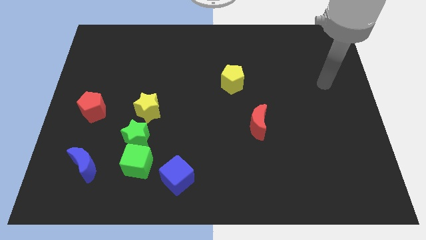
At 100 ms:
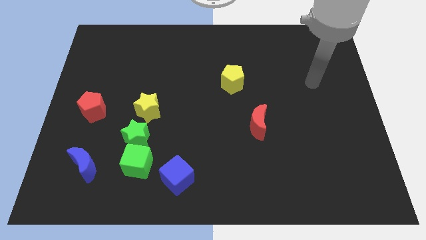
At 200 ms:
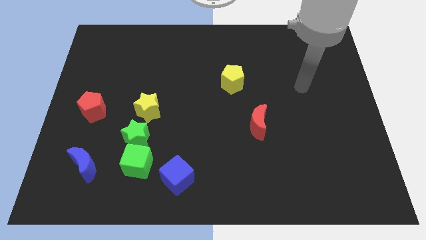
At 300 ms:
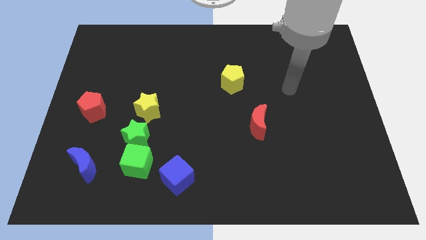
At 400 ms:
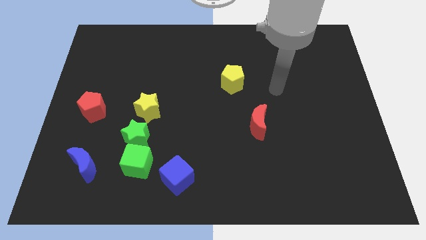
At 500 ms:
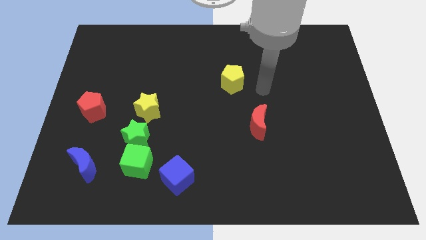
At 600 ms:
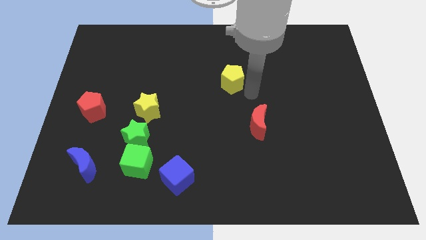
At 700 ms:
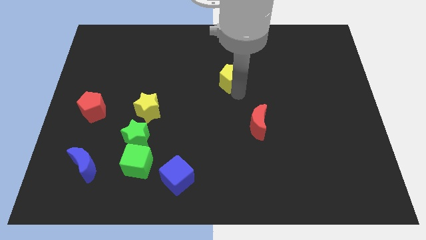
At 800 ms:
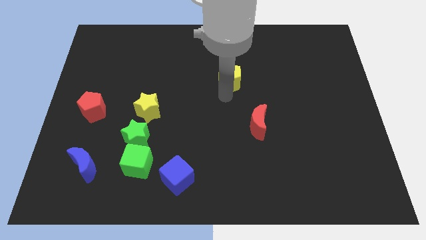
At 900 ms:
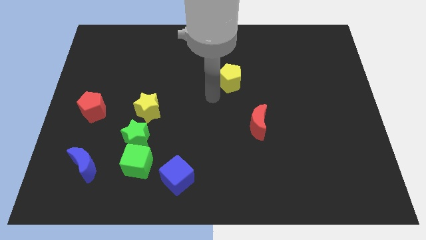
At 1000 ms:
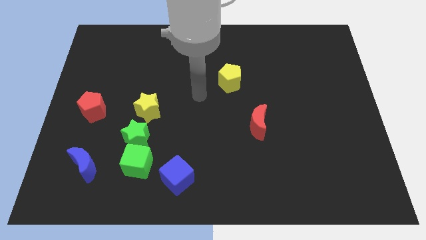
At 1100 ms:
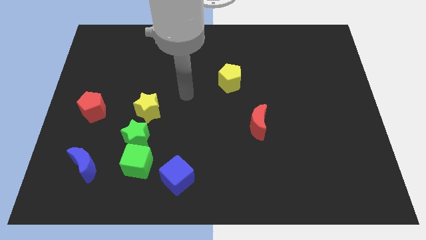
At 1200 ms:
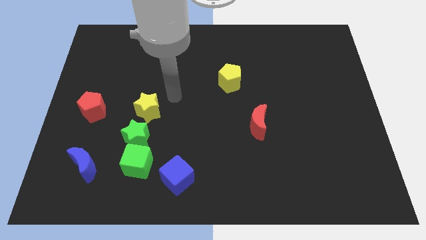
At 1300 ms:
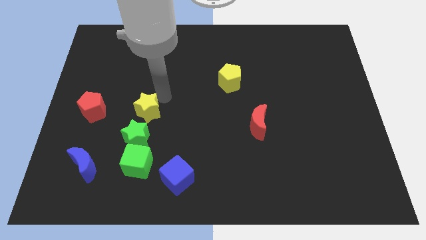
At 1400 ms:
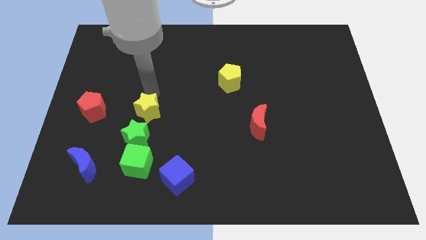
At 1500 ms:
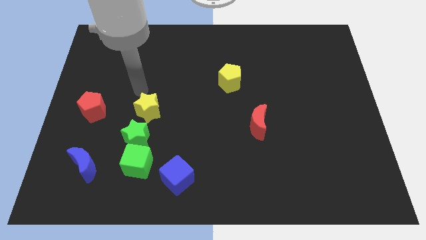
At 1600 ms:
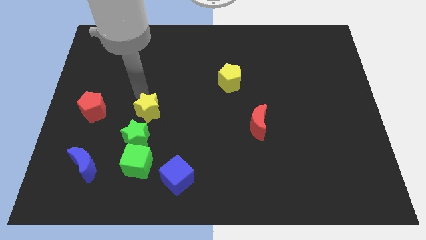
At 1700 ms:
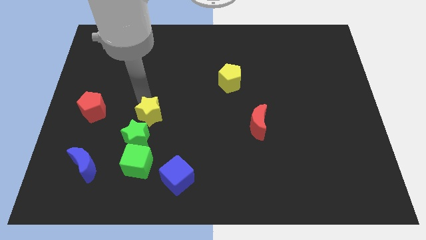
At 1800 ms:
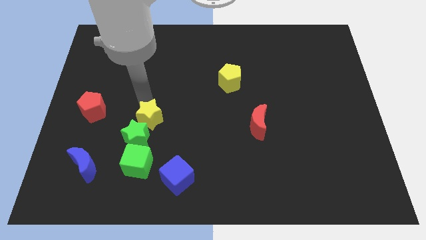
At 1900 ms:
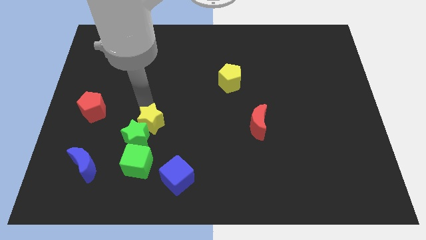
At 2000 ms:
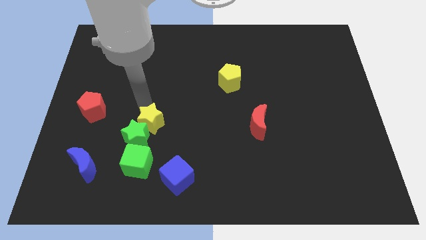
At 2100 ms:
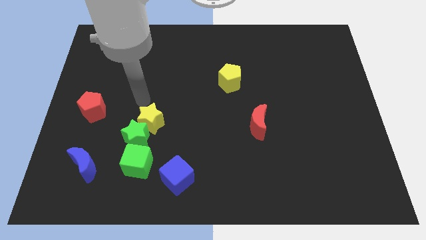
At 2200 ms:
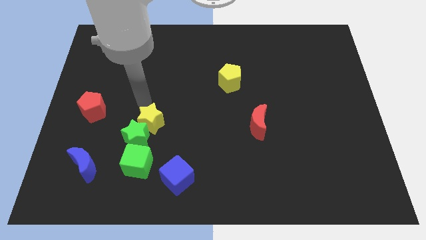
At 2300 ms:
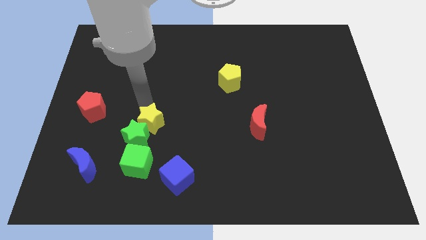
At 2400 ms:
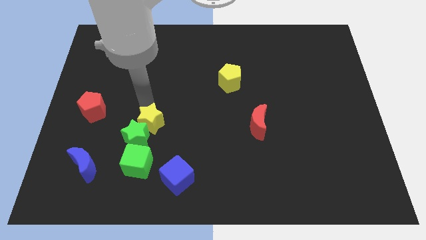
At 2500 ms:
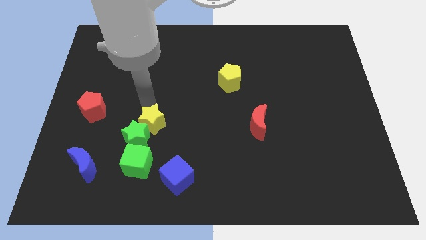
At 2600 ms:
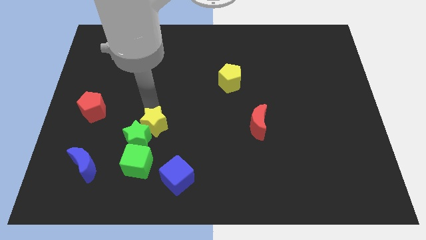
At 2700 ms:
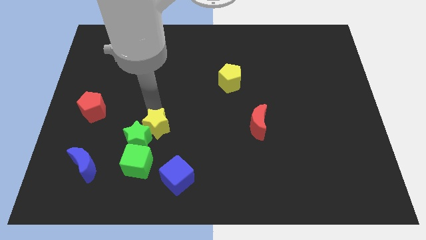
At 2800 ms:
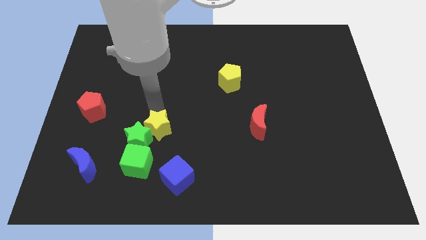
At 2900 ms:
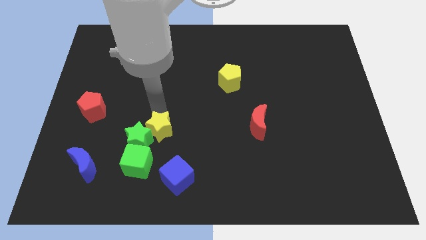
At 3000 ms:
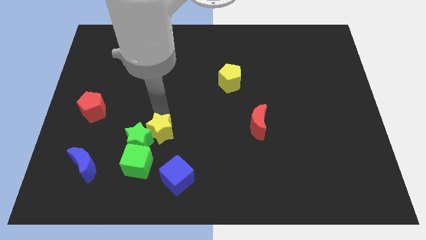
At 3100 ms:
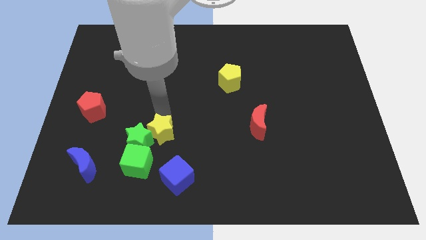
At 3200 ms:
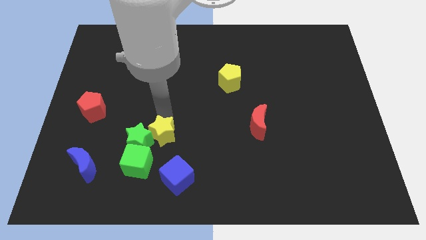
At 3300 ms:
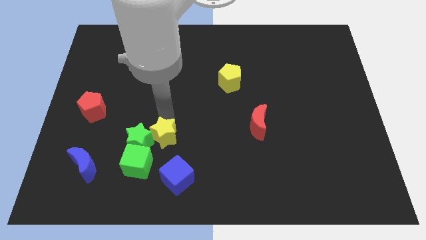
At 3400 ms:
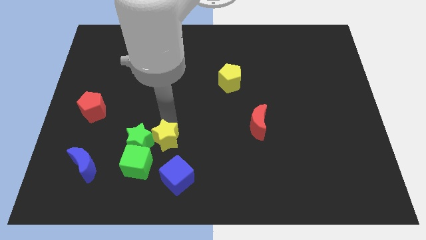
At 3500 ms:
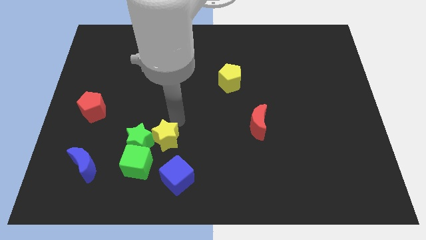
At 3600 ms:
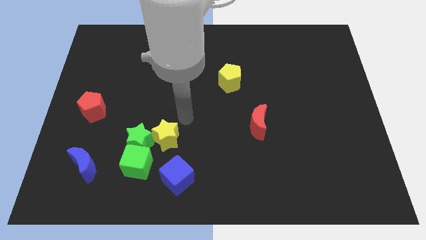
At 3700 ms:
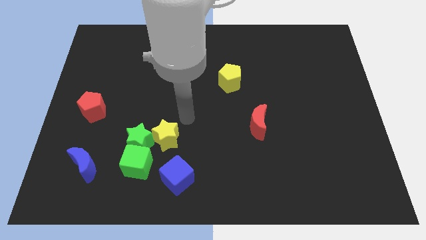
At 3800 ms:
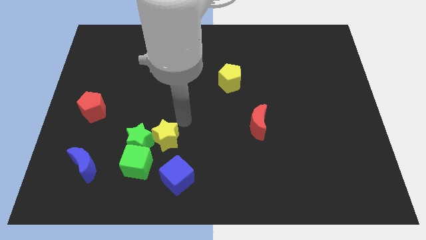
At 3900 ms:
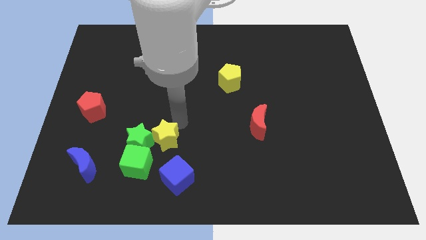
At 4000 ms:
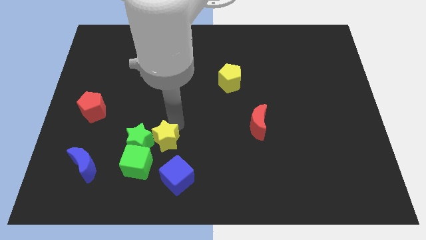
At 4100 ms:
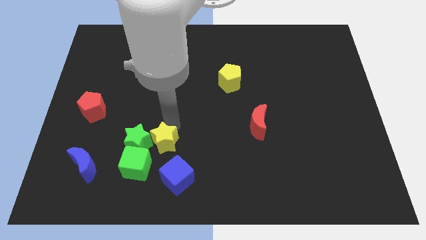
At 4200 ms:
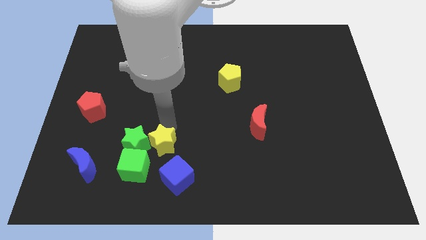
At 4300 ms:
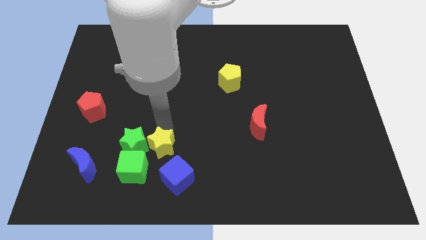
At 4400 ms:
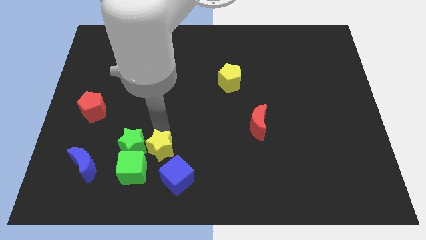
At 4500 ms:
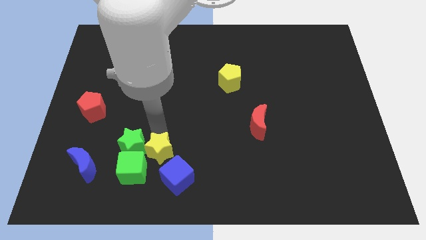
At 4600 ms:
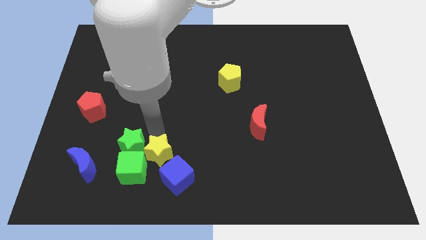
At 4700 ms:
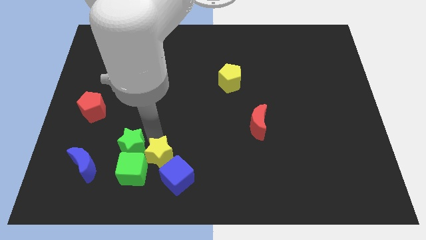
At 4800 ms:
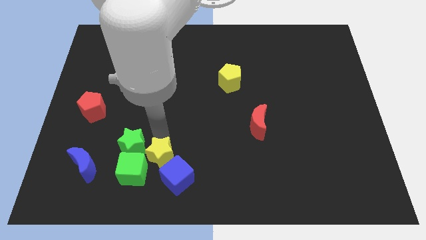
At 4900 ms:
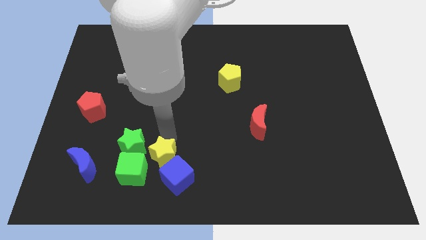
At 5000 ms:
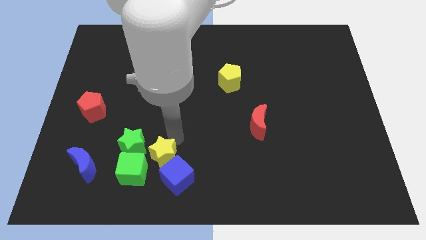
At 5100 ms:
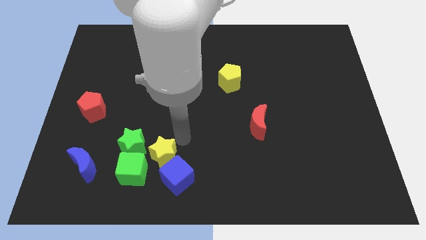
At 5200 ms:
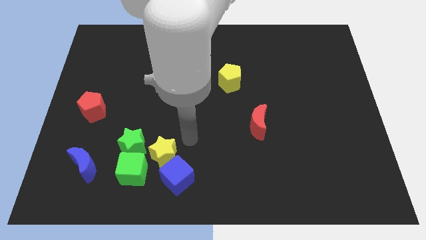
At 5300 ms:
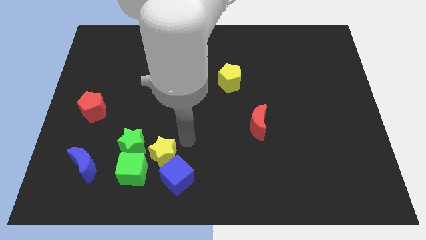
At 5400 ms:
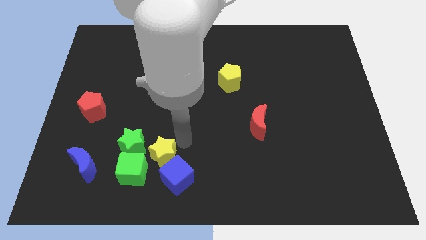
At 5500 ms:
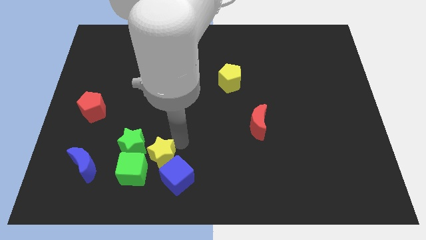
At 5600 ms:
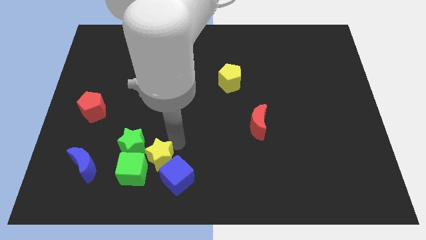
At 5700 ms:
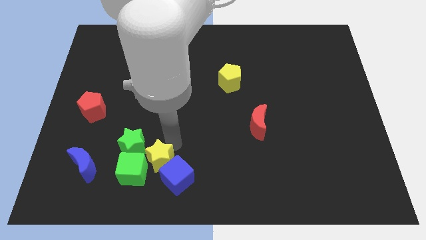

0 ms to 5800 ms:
slide the yellow star towards the green cube

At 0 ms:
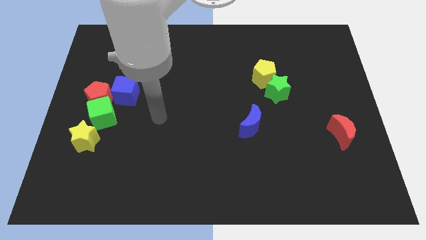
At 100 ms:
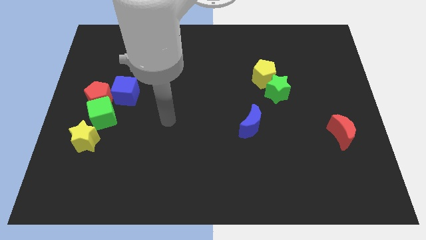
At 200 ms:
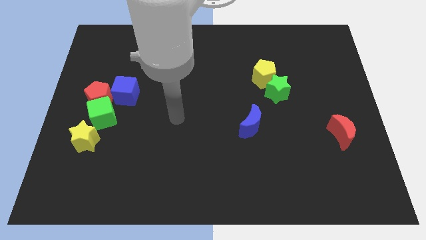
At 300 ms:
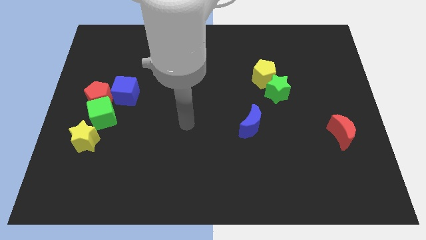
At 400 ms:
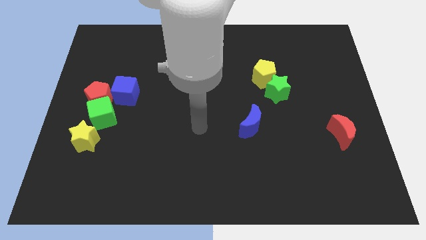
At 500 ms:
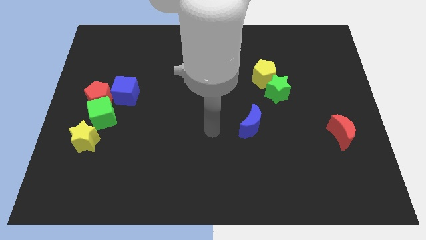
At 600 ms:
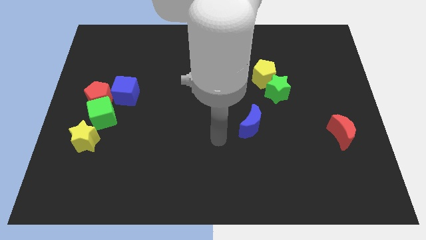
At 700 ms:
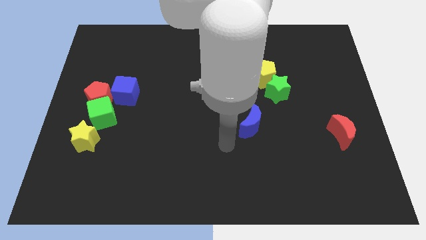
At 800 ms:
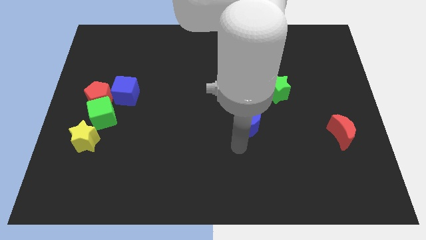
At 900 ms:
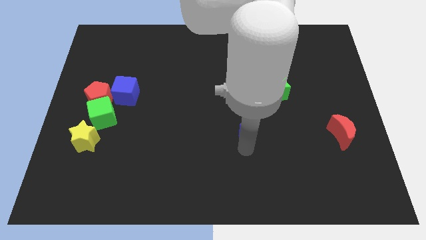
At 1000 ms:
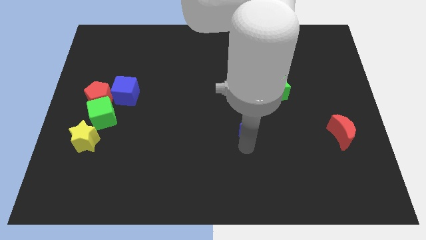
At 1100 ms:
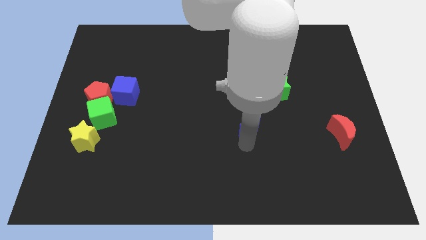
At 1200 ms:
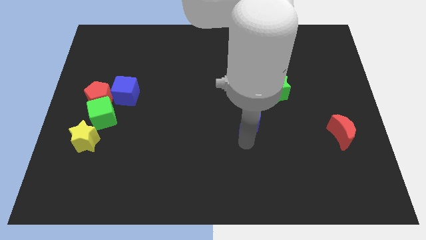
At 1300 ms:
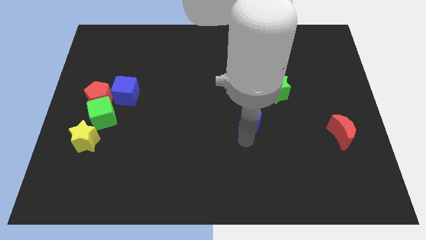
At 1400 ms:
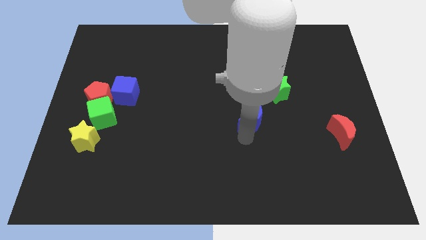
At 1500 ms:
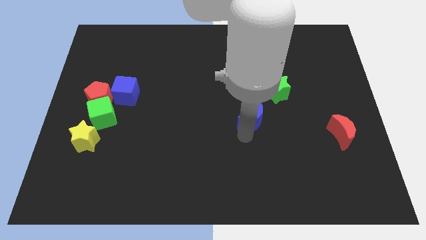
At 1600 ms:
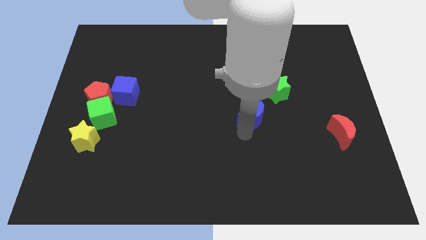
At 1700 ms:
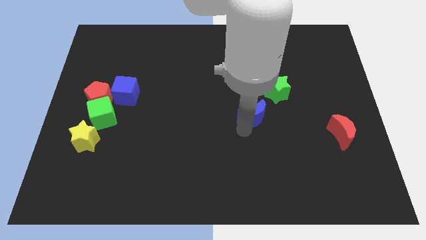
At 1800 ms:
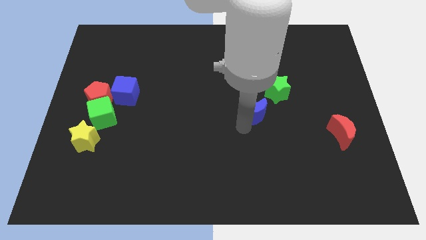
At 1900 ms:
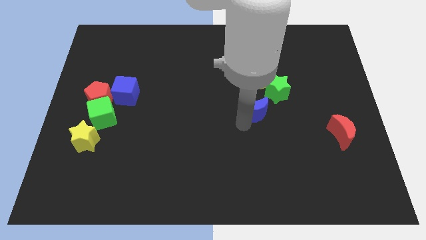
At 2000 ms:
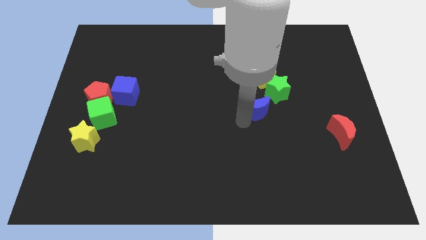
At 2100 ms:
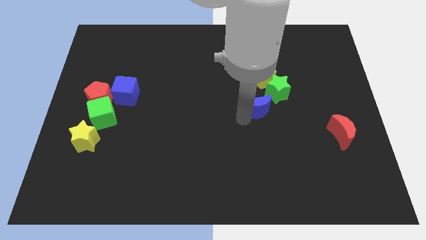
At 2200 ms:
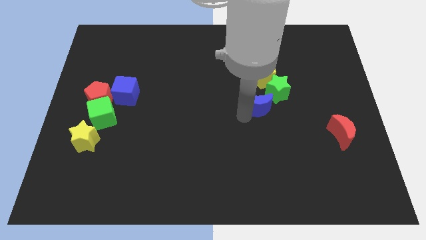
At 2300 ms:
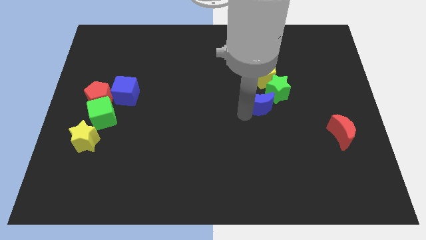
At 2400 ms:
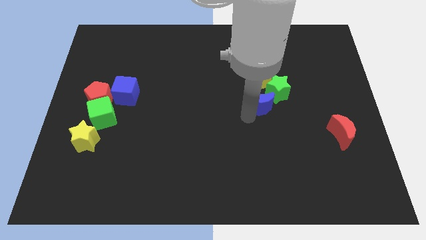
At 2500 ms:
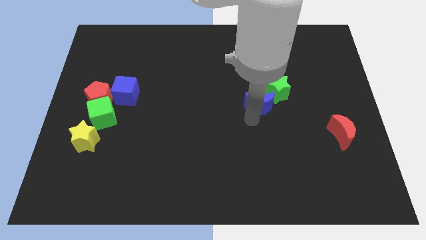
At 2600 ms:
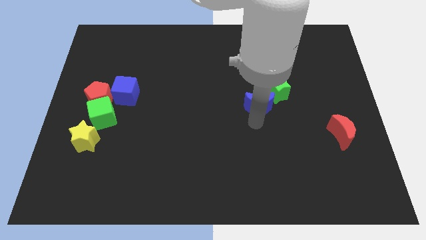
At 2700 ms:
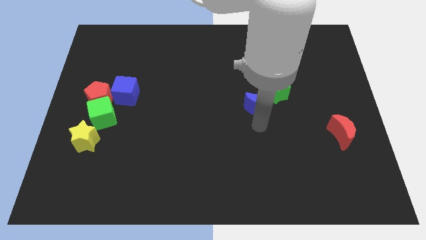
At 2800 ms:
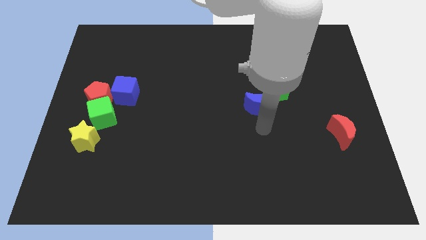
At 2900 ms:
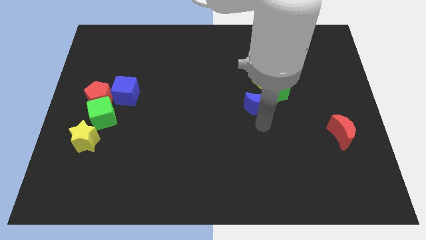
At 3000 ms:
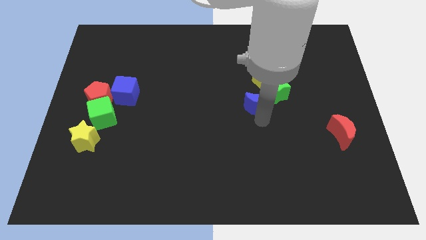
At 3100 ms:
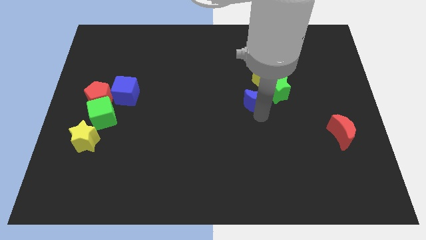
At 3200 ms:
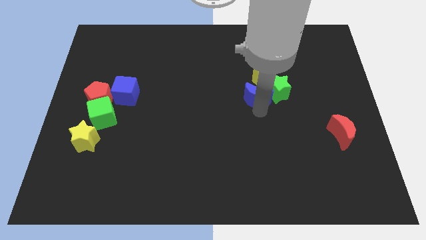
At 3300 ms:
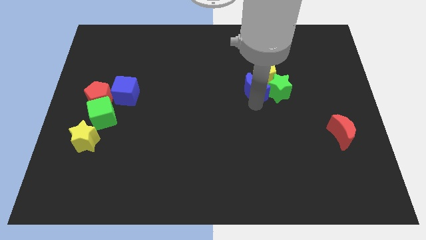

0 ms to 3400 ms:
push the blue moon next to the yellow pentagon
